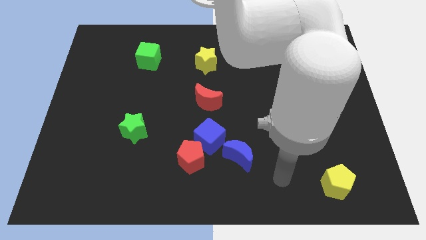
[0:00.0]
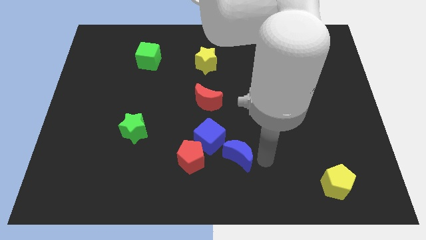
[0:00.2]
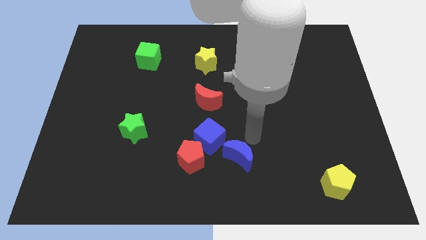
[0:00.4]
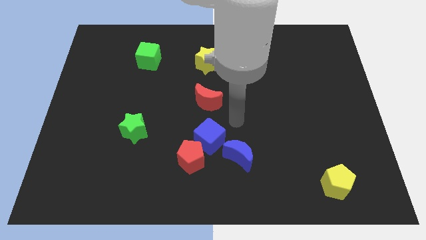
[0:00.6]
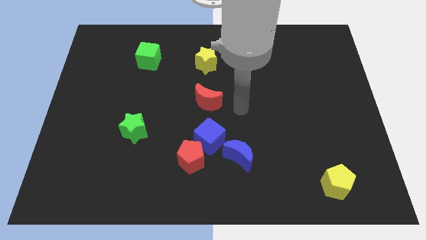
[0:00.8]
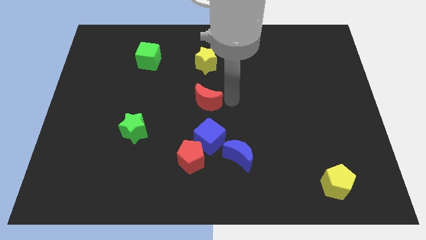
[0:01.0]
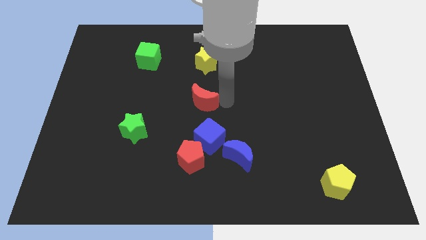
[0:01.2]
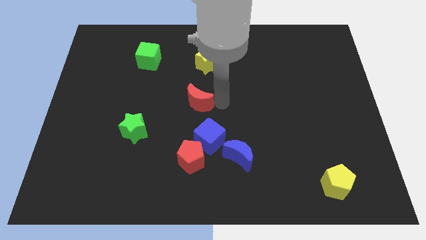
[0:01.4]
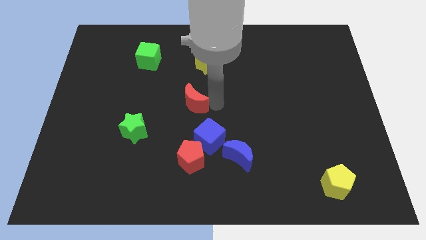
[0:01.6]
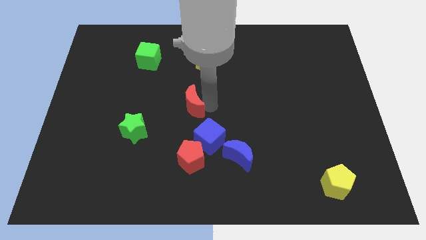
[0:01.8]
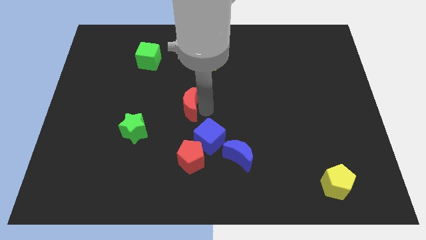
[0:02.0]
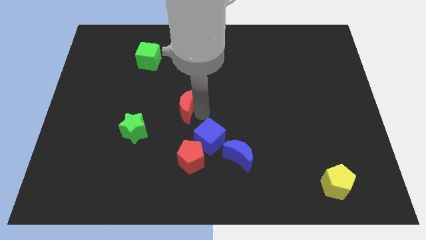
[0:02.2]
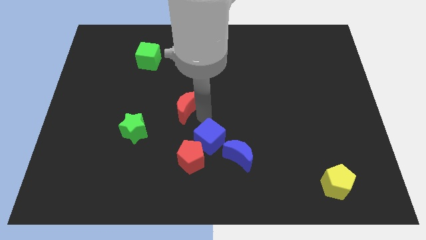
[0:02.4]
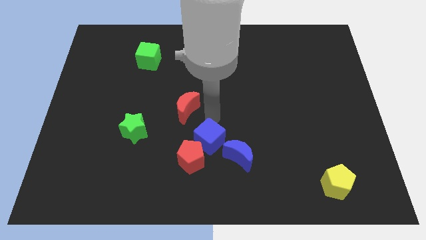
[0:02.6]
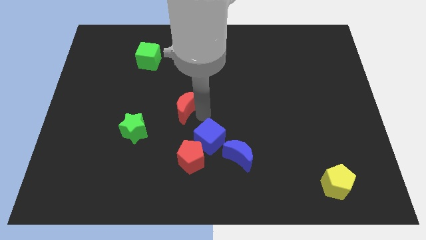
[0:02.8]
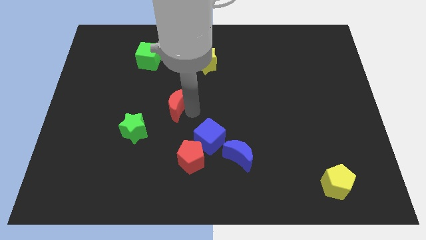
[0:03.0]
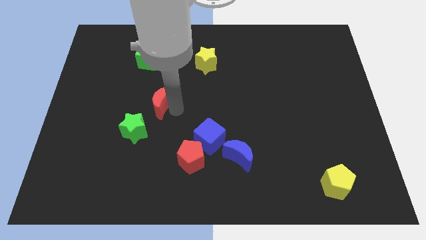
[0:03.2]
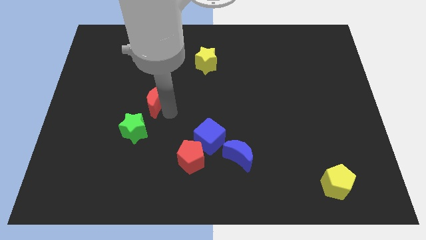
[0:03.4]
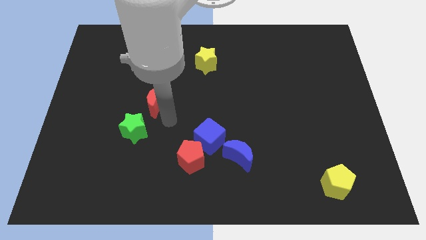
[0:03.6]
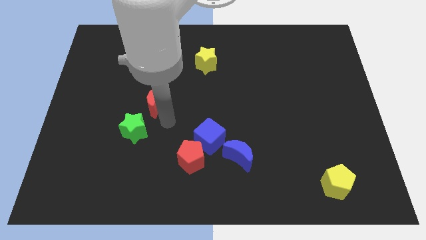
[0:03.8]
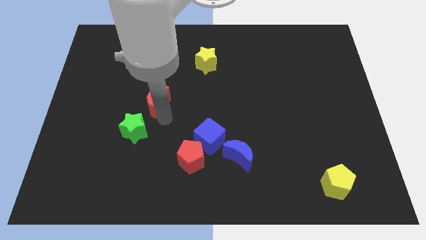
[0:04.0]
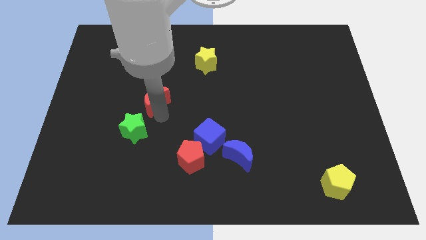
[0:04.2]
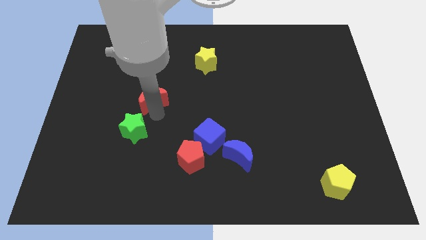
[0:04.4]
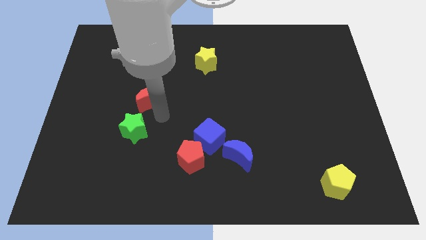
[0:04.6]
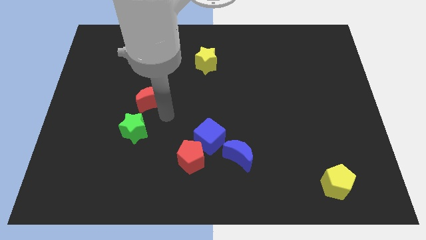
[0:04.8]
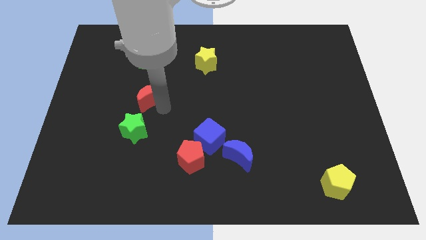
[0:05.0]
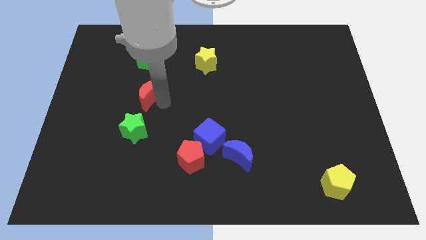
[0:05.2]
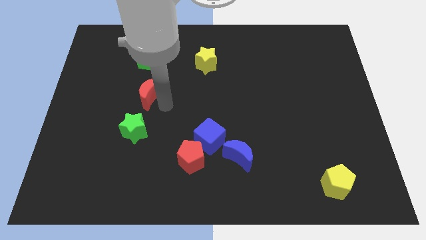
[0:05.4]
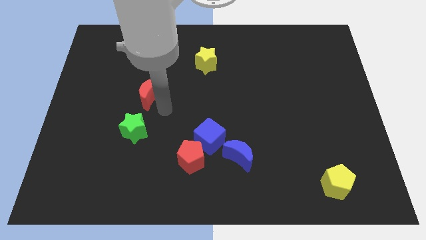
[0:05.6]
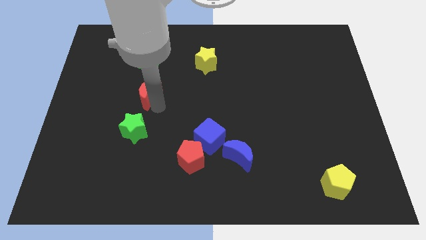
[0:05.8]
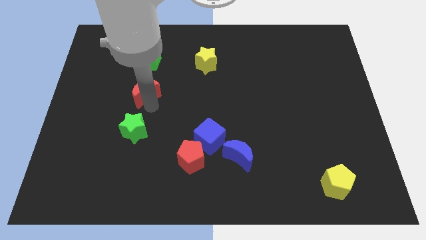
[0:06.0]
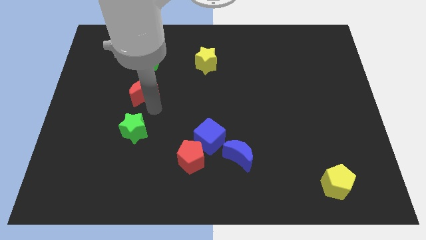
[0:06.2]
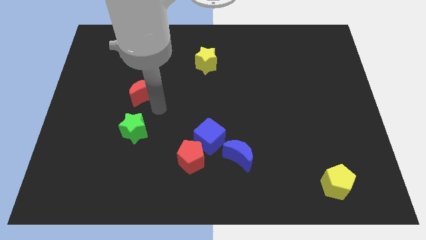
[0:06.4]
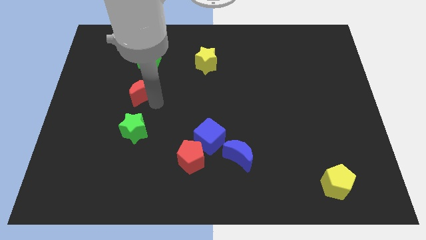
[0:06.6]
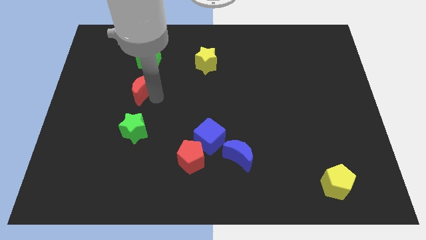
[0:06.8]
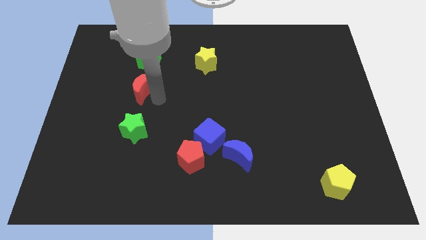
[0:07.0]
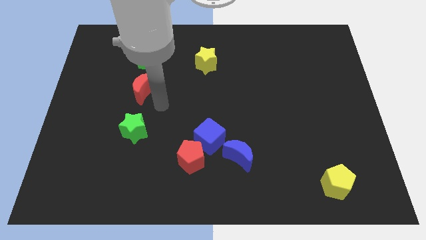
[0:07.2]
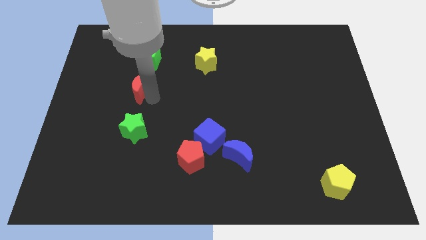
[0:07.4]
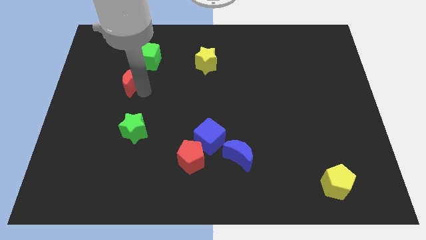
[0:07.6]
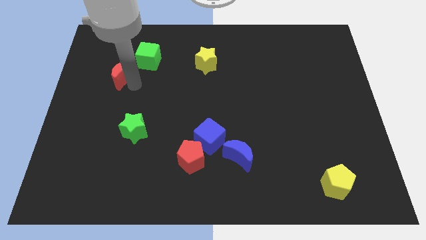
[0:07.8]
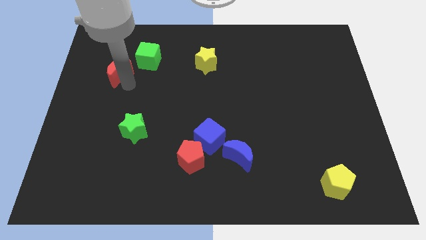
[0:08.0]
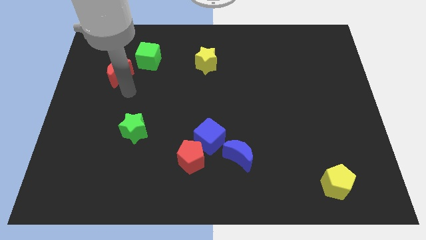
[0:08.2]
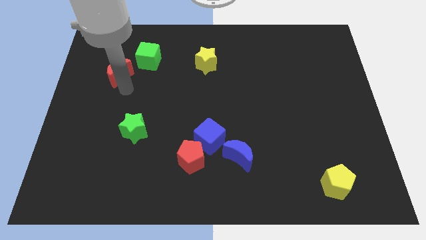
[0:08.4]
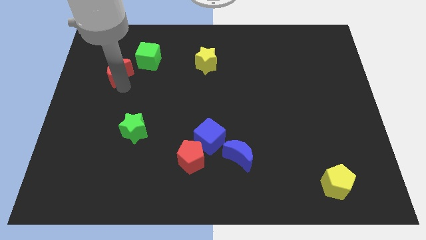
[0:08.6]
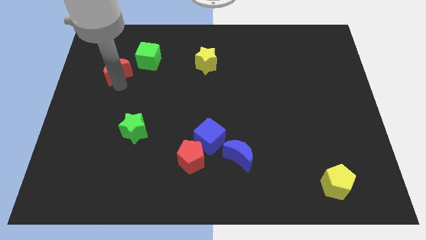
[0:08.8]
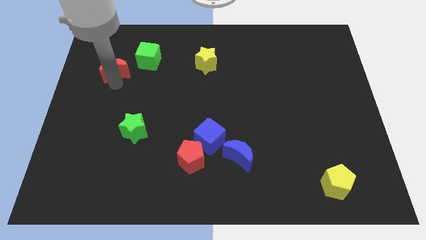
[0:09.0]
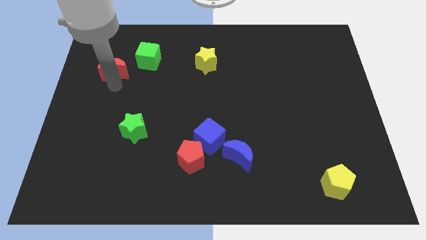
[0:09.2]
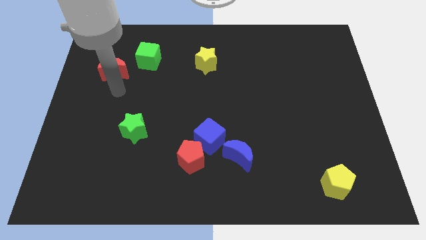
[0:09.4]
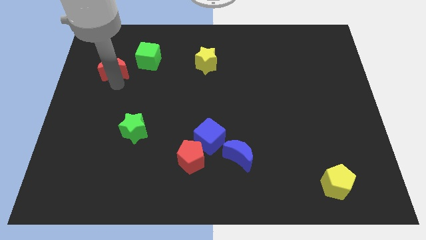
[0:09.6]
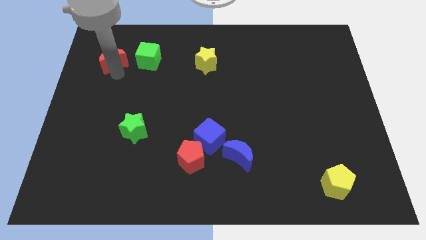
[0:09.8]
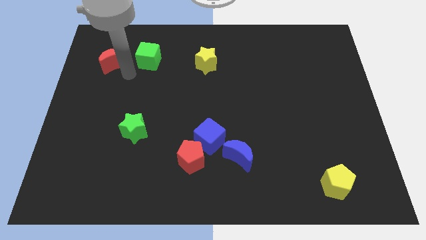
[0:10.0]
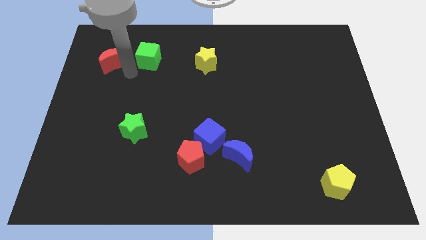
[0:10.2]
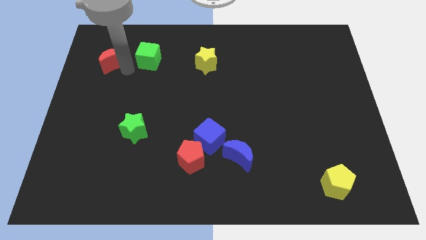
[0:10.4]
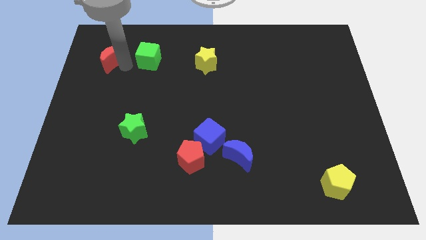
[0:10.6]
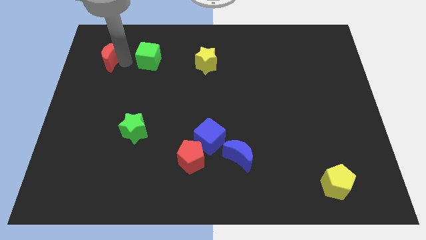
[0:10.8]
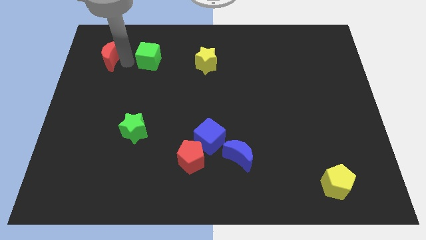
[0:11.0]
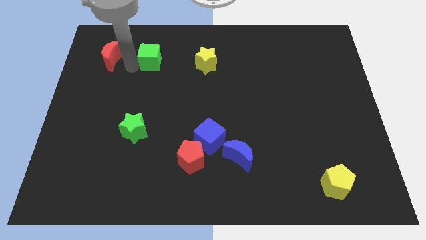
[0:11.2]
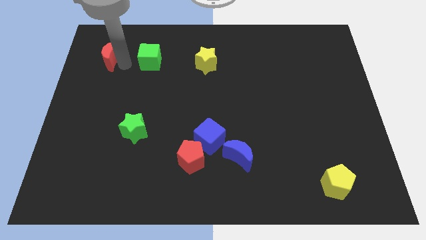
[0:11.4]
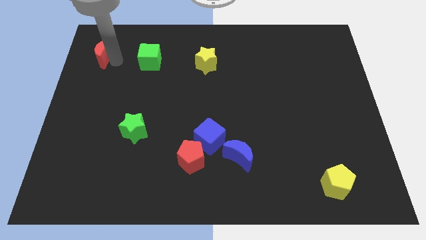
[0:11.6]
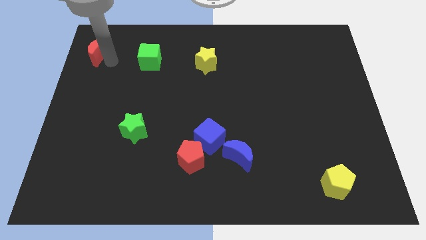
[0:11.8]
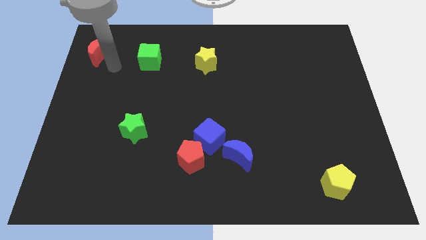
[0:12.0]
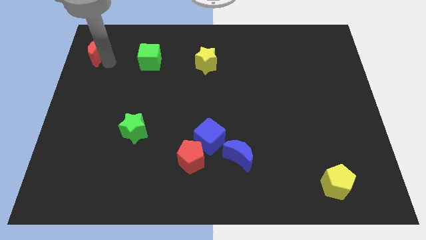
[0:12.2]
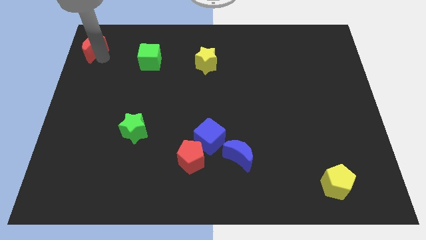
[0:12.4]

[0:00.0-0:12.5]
put the red moon to the top left of the board

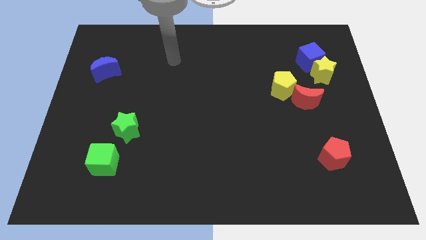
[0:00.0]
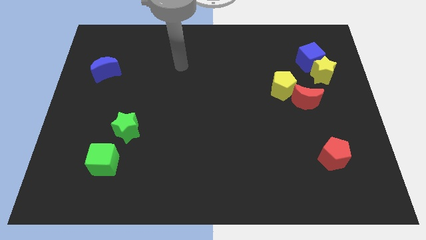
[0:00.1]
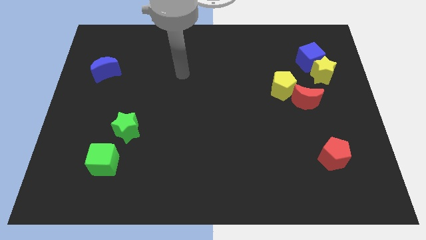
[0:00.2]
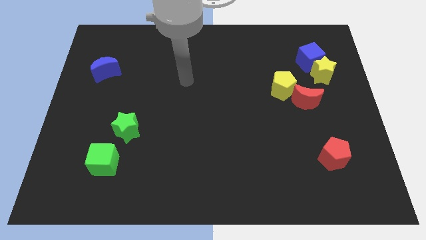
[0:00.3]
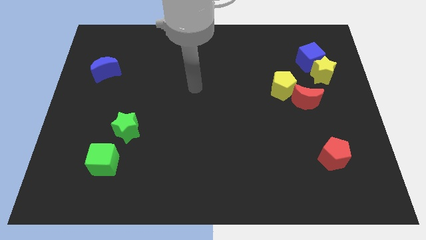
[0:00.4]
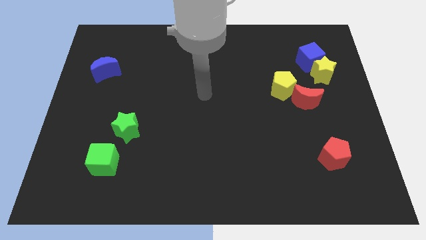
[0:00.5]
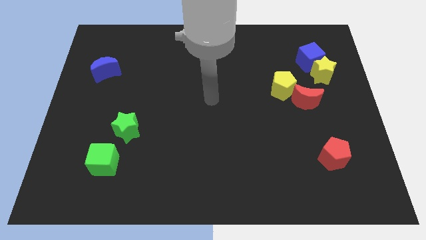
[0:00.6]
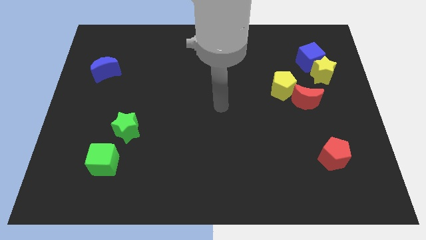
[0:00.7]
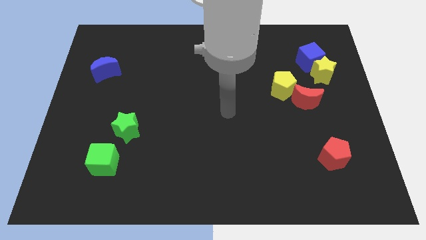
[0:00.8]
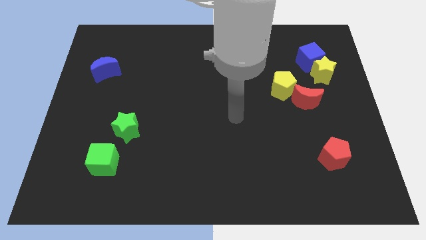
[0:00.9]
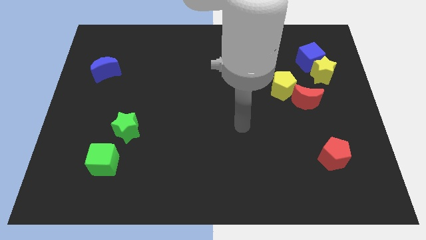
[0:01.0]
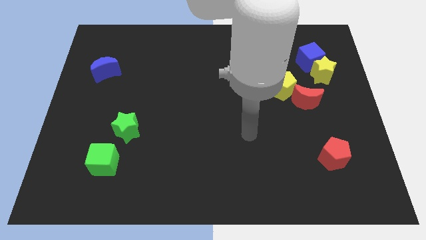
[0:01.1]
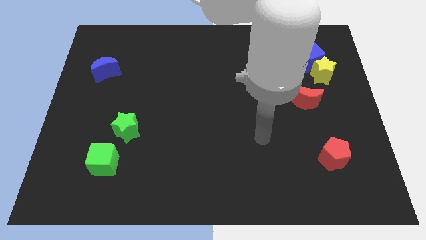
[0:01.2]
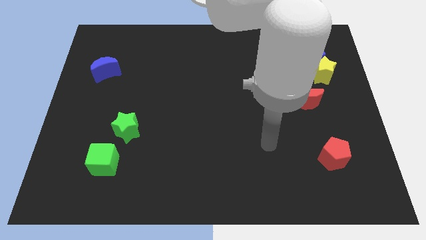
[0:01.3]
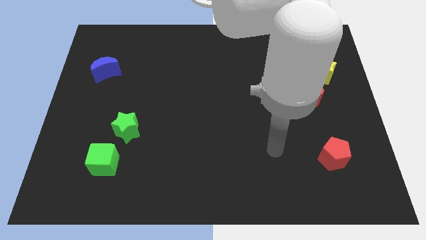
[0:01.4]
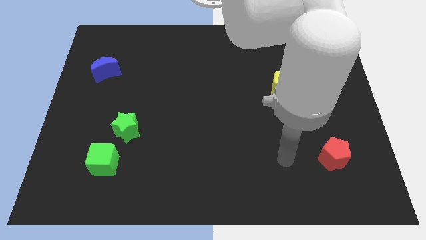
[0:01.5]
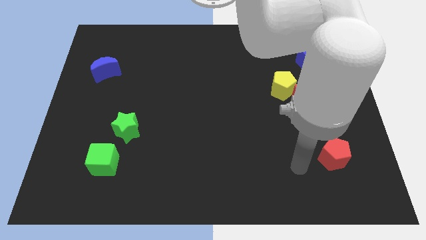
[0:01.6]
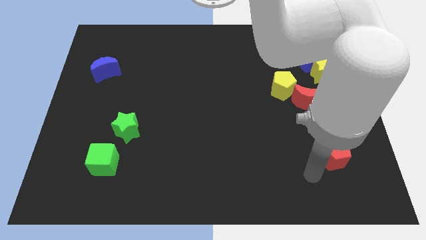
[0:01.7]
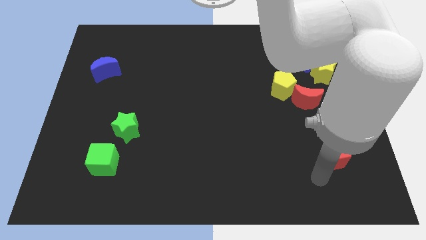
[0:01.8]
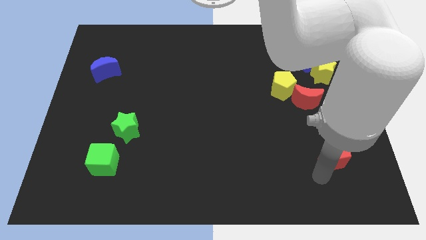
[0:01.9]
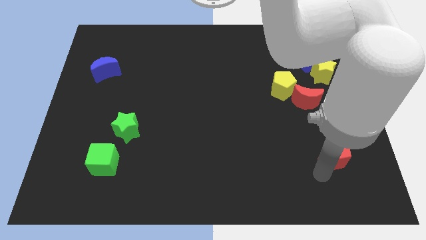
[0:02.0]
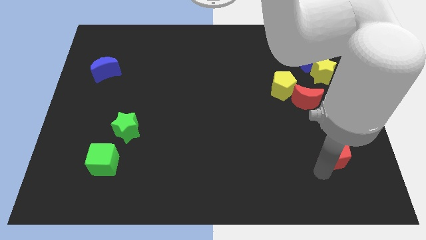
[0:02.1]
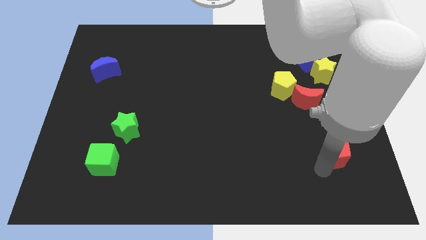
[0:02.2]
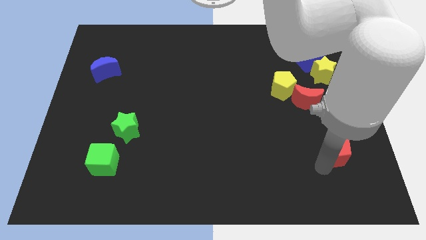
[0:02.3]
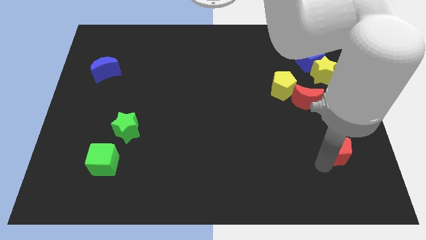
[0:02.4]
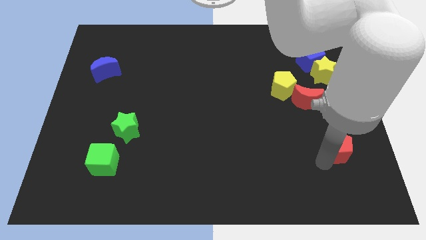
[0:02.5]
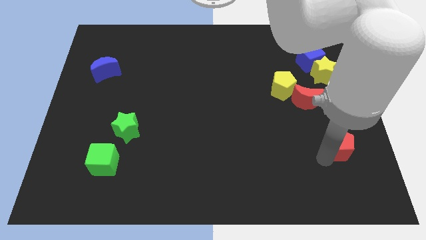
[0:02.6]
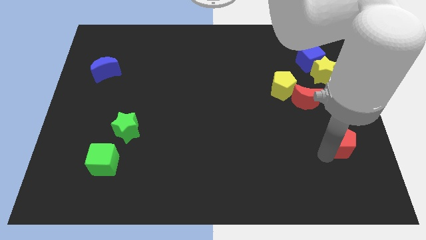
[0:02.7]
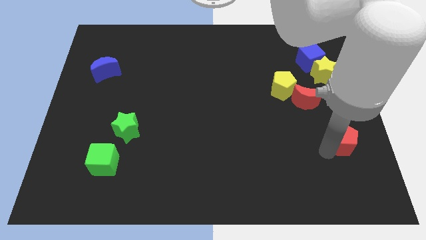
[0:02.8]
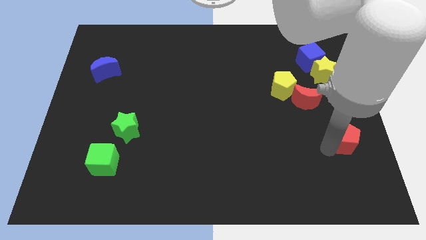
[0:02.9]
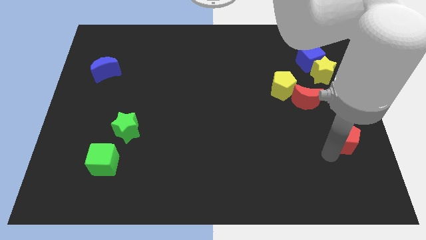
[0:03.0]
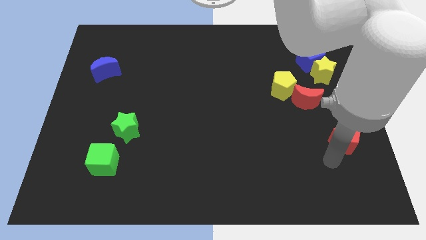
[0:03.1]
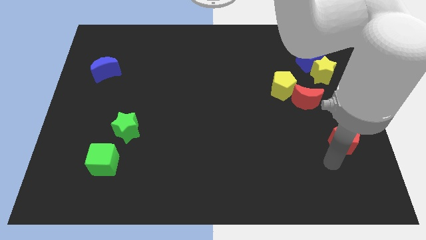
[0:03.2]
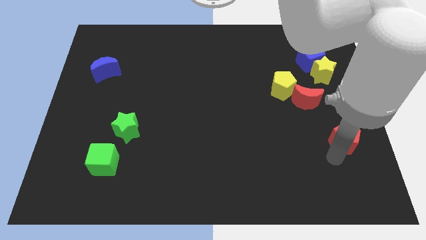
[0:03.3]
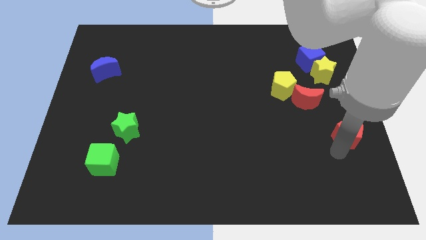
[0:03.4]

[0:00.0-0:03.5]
move the red pentagon to the center right
